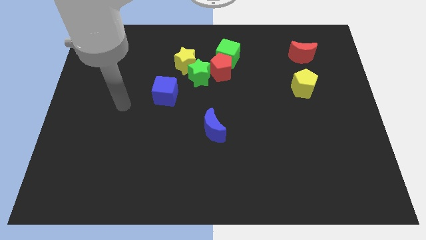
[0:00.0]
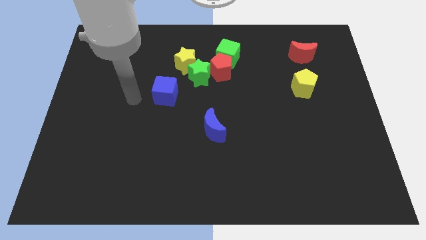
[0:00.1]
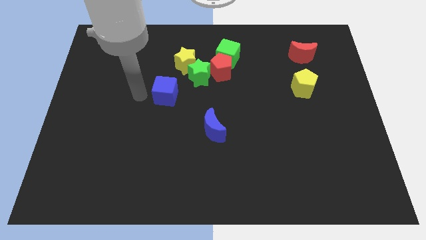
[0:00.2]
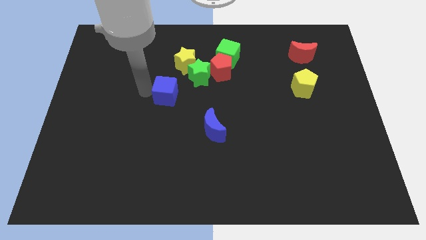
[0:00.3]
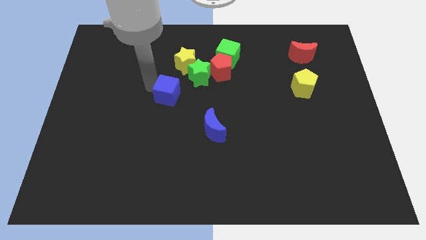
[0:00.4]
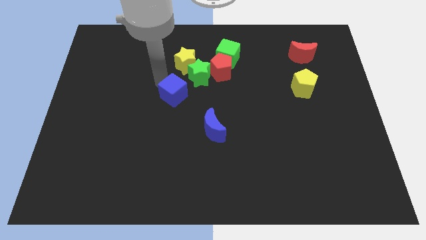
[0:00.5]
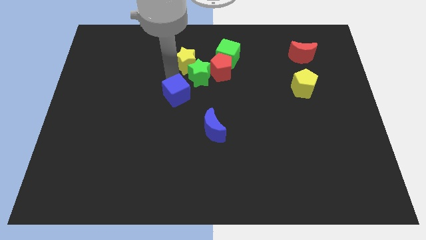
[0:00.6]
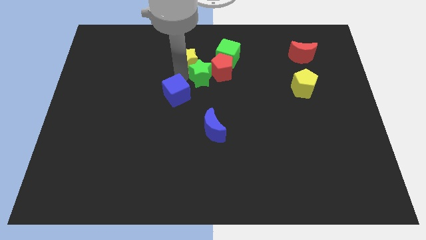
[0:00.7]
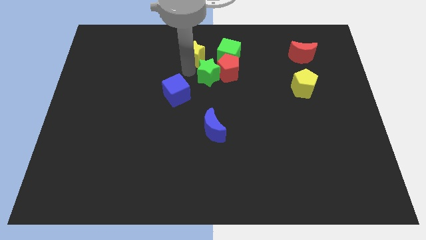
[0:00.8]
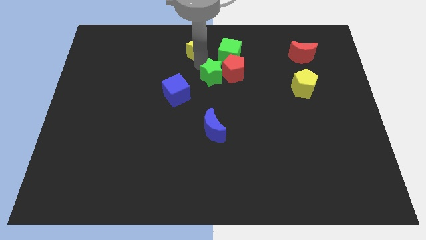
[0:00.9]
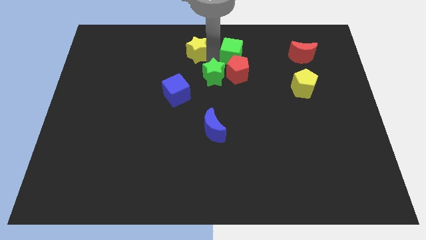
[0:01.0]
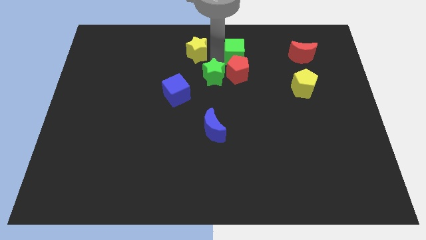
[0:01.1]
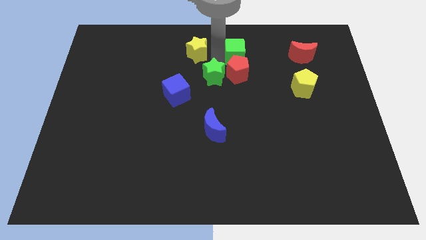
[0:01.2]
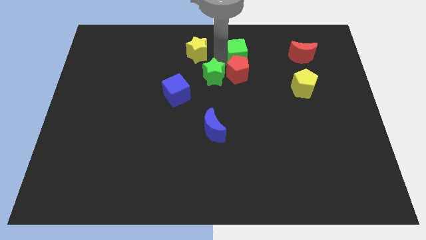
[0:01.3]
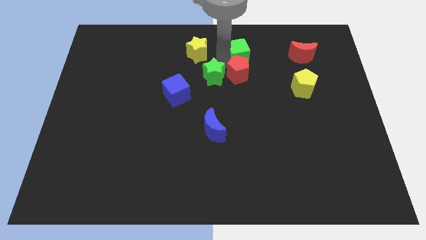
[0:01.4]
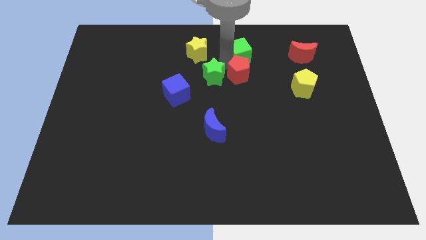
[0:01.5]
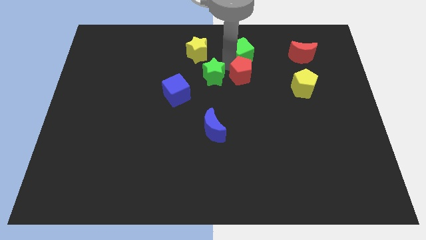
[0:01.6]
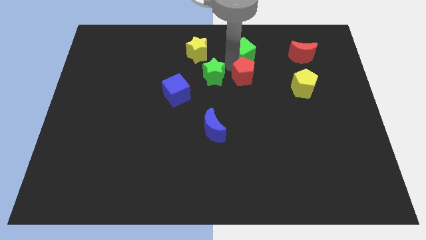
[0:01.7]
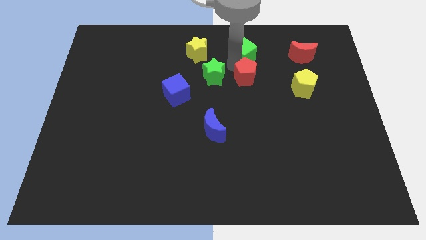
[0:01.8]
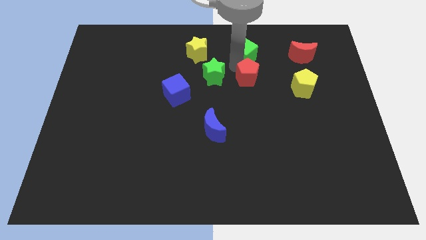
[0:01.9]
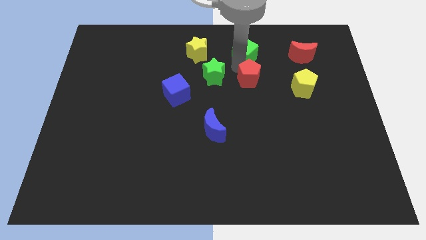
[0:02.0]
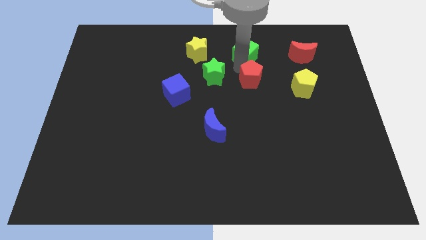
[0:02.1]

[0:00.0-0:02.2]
pull the red pentagon apart from the clump

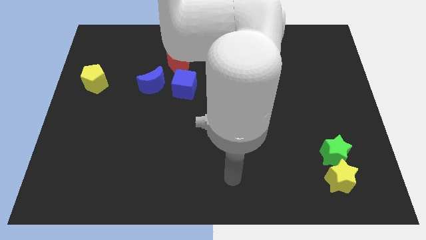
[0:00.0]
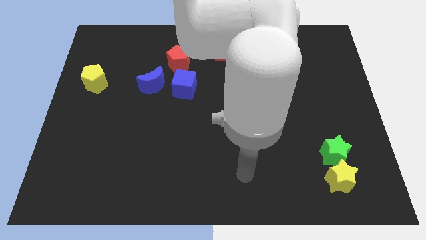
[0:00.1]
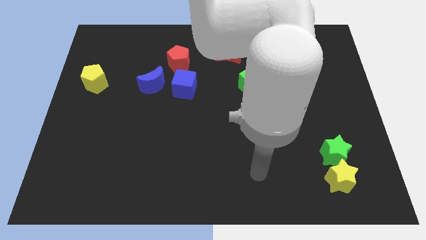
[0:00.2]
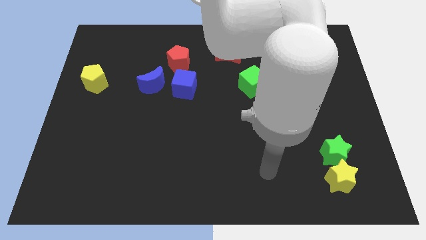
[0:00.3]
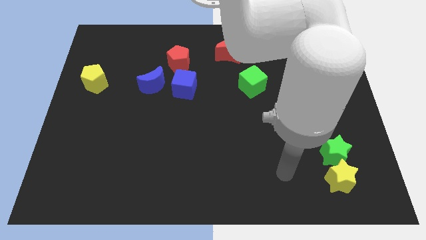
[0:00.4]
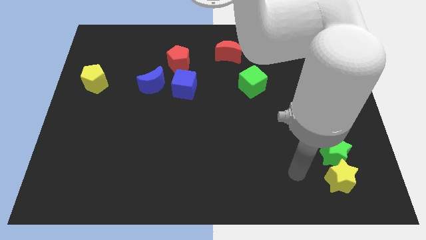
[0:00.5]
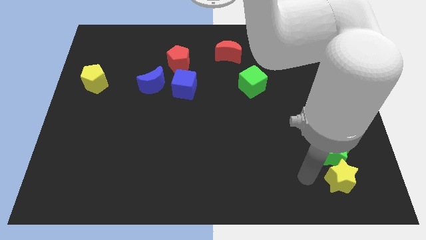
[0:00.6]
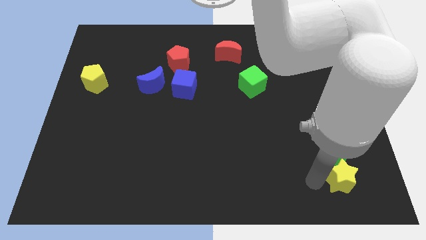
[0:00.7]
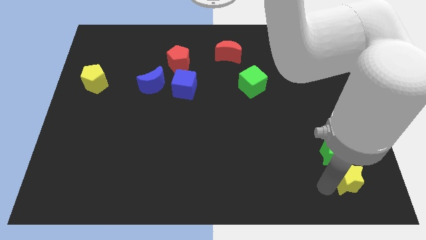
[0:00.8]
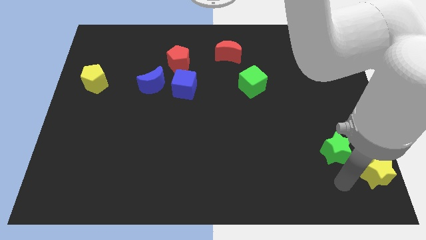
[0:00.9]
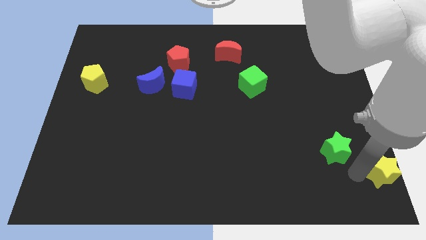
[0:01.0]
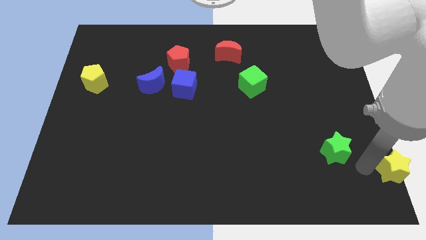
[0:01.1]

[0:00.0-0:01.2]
move the green star away from the yellow star

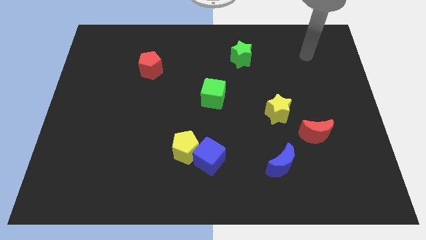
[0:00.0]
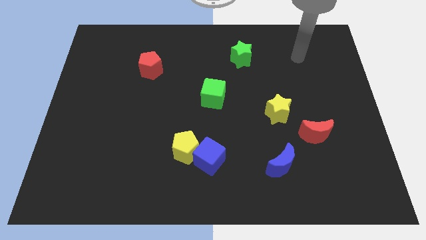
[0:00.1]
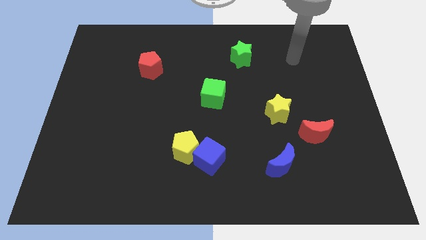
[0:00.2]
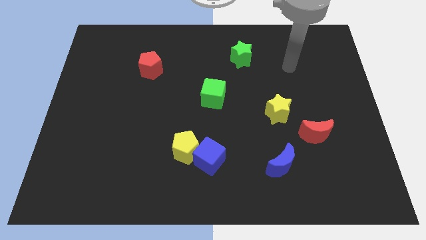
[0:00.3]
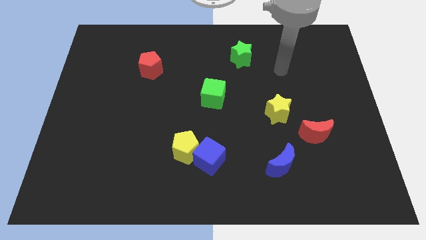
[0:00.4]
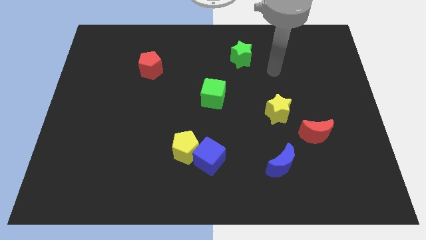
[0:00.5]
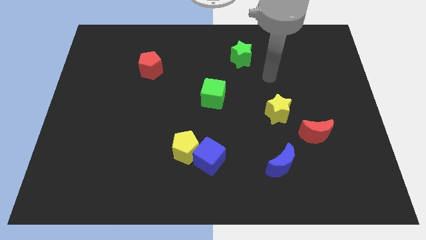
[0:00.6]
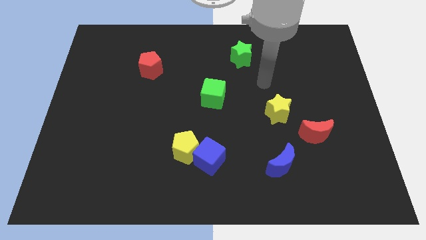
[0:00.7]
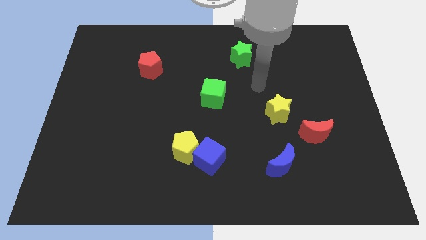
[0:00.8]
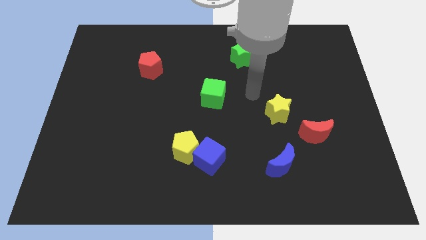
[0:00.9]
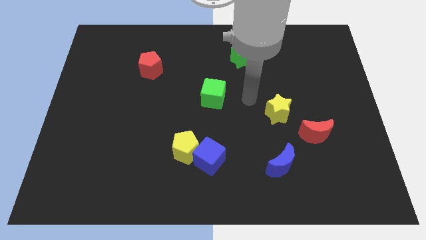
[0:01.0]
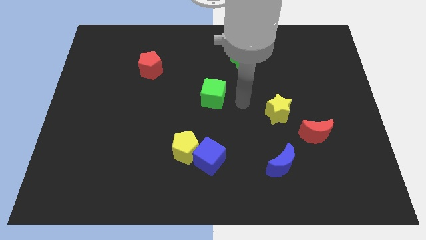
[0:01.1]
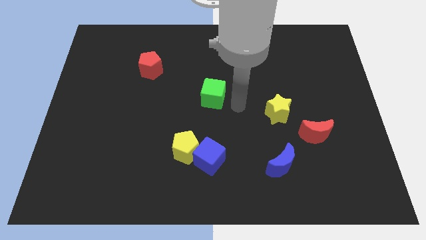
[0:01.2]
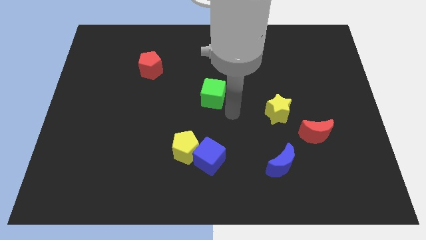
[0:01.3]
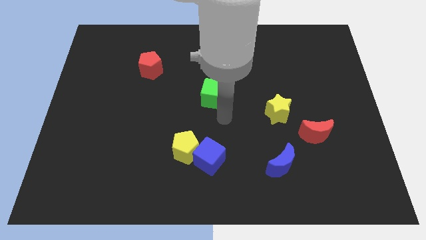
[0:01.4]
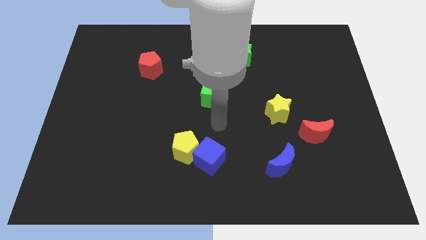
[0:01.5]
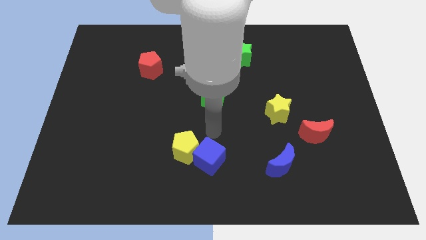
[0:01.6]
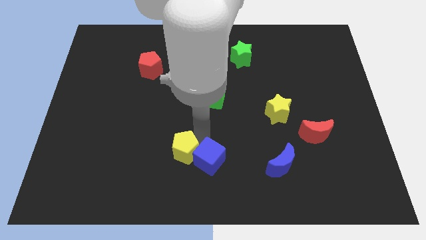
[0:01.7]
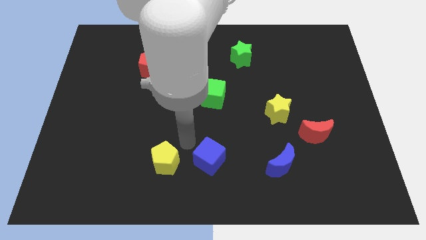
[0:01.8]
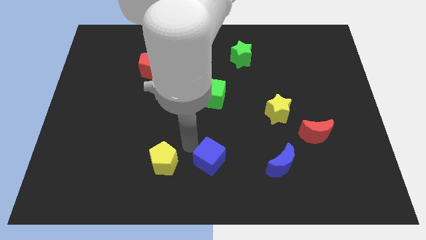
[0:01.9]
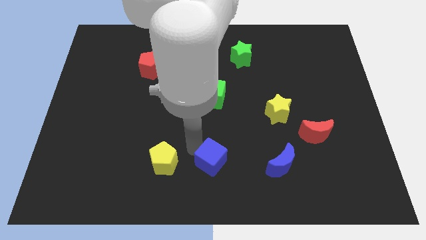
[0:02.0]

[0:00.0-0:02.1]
separate the blue cube from the yellow pentagon

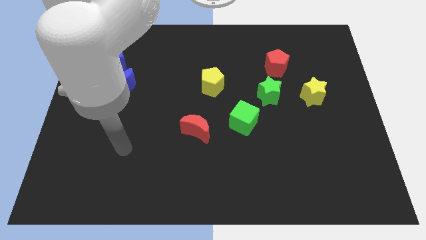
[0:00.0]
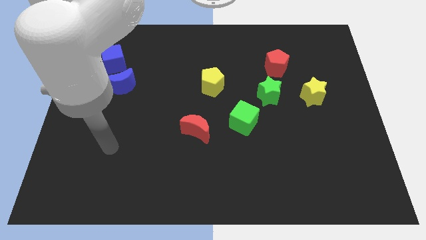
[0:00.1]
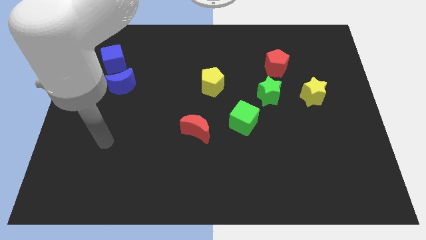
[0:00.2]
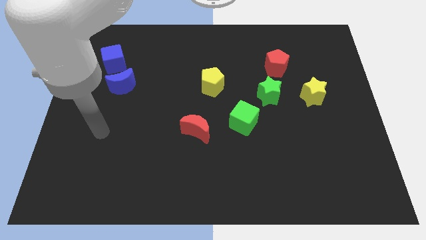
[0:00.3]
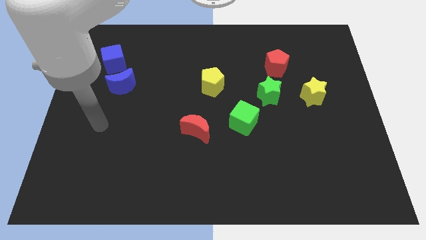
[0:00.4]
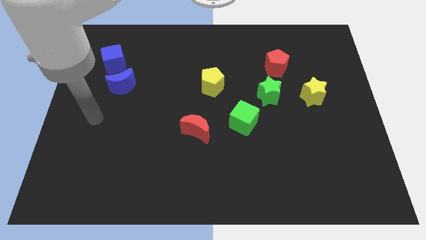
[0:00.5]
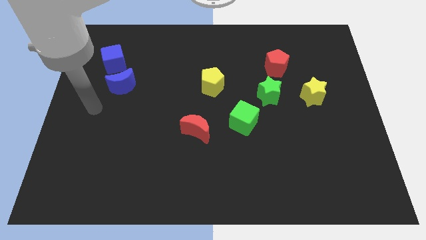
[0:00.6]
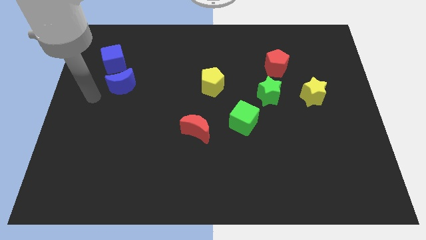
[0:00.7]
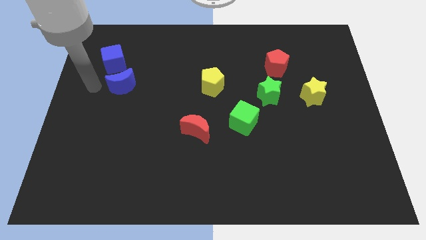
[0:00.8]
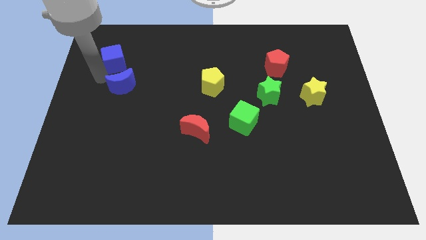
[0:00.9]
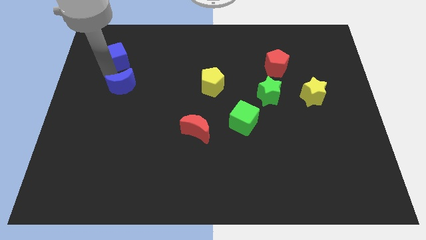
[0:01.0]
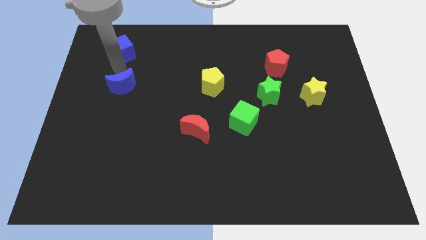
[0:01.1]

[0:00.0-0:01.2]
move the blue moon away from the blue cube

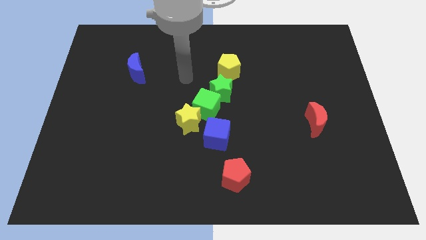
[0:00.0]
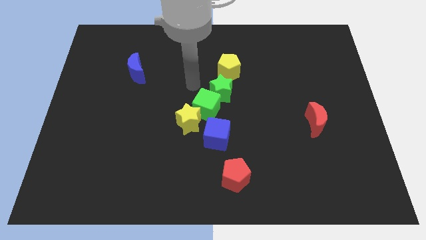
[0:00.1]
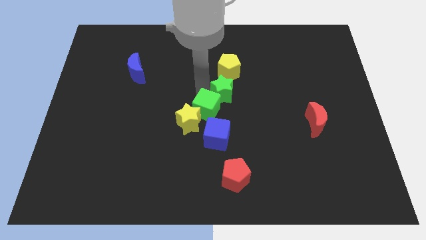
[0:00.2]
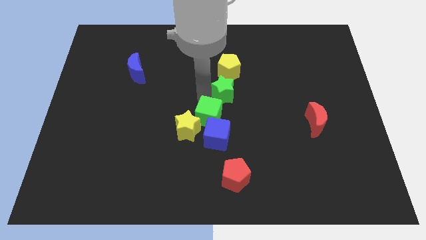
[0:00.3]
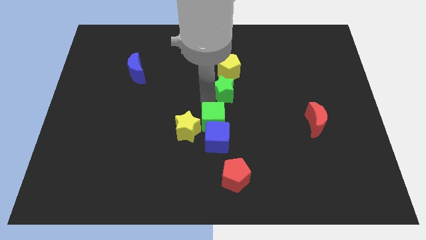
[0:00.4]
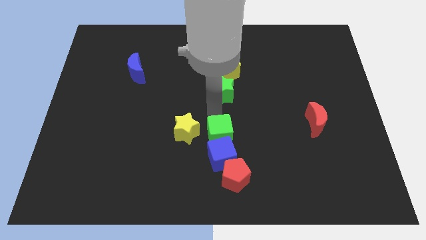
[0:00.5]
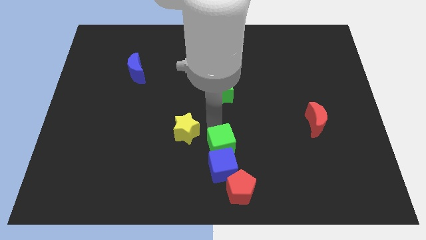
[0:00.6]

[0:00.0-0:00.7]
separate the yellow star from the green cube and blue cube

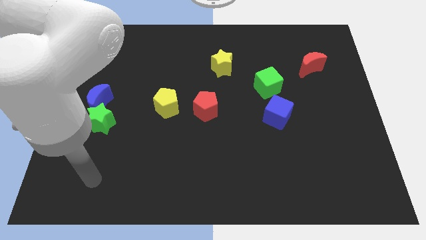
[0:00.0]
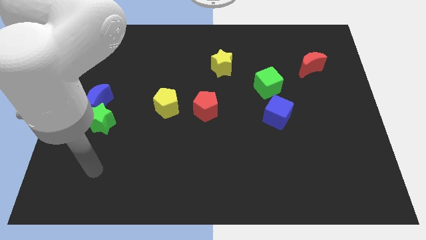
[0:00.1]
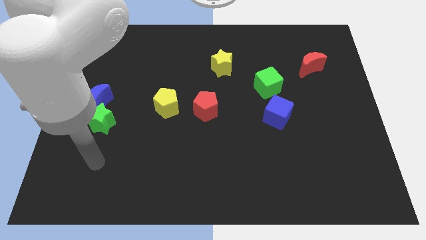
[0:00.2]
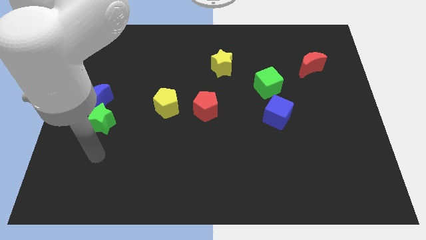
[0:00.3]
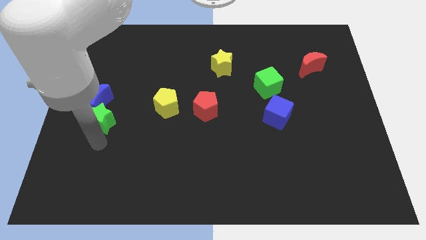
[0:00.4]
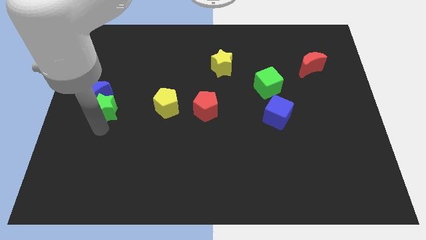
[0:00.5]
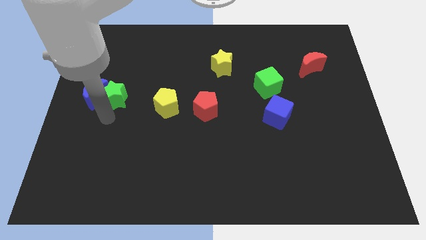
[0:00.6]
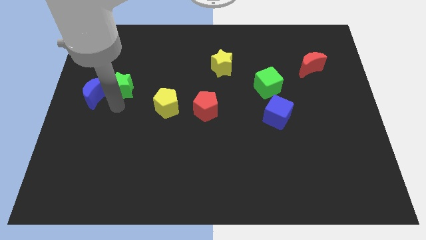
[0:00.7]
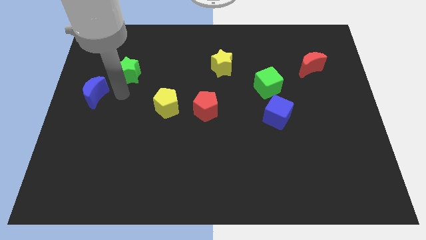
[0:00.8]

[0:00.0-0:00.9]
pull the blue moon apart from the green star

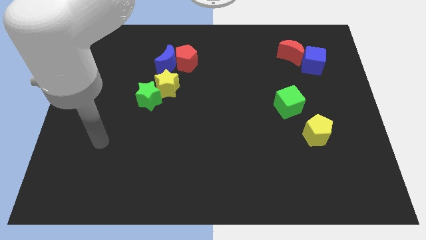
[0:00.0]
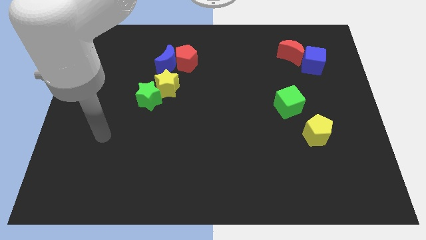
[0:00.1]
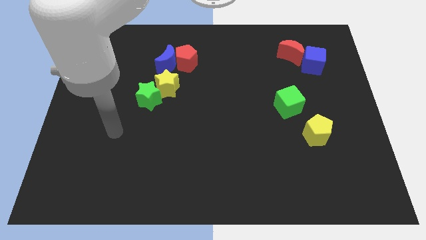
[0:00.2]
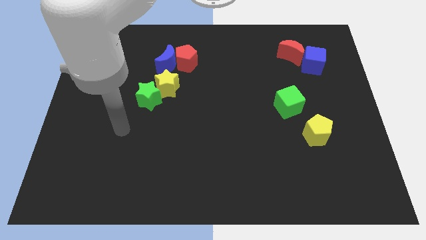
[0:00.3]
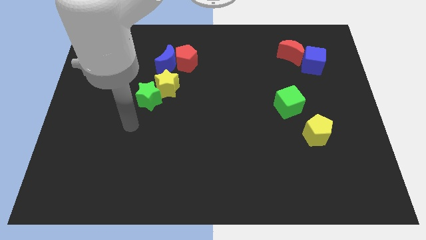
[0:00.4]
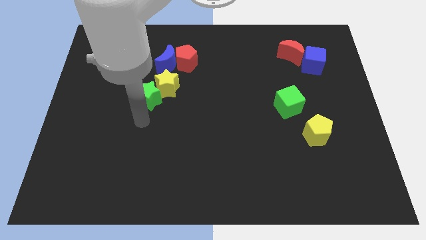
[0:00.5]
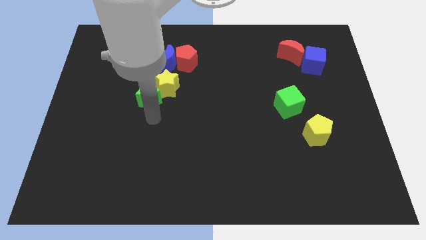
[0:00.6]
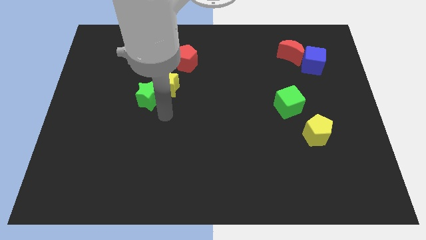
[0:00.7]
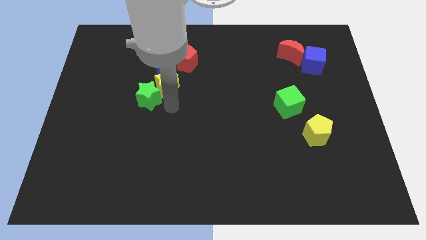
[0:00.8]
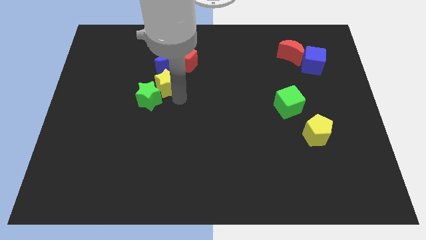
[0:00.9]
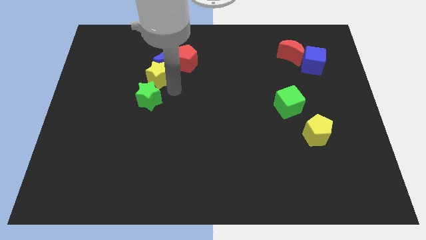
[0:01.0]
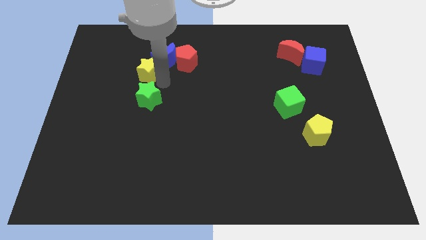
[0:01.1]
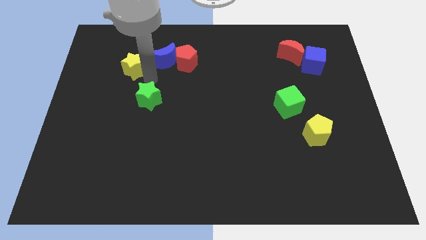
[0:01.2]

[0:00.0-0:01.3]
pull the green star apart from the yellow star
